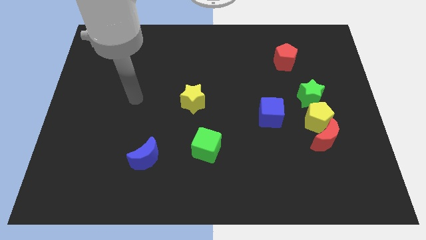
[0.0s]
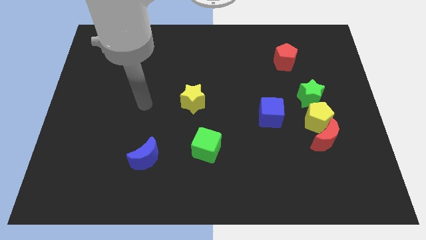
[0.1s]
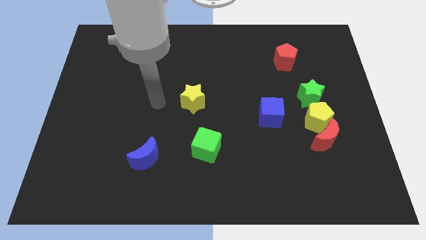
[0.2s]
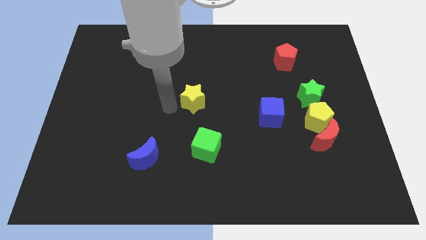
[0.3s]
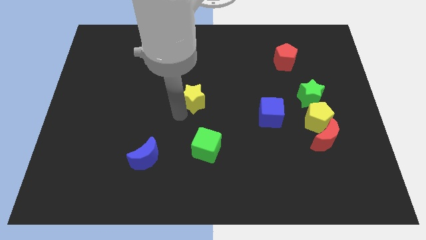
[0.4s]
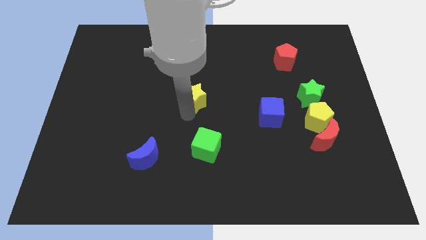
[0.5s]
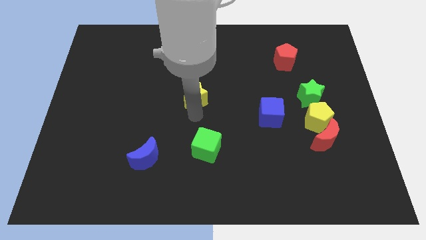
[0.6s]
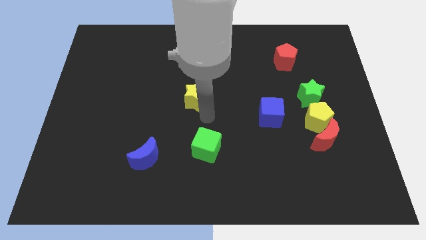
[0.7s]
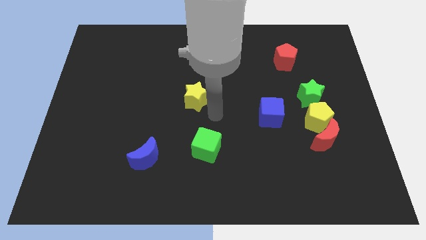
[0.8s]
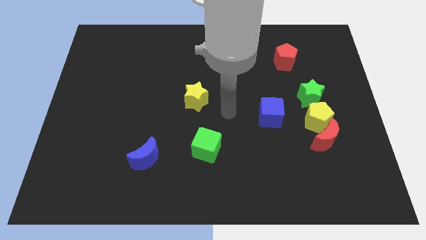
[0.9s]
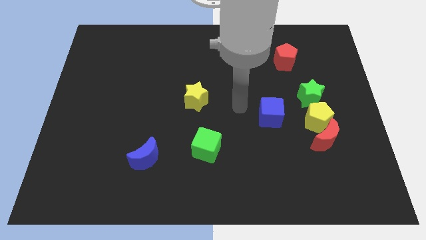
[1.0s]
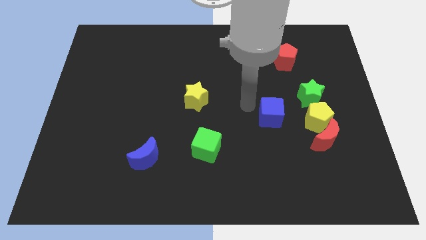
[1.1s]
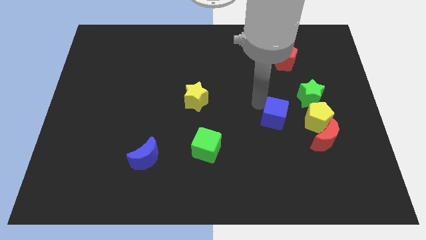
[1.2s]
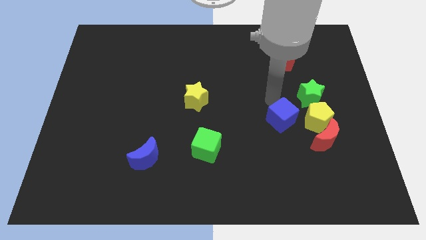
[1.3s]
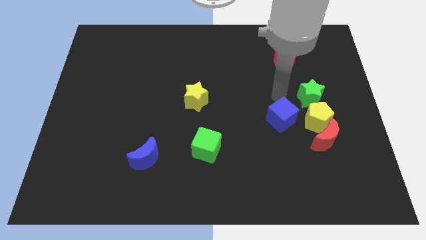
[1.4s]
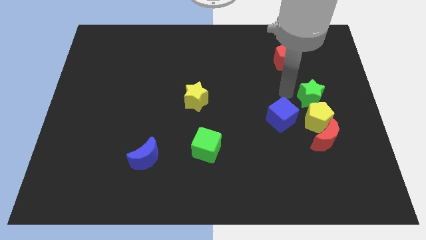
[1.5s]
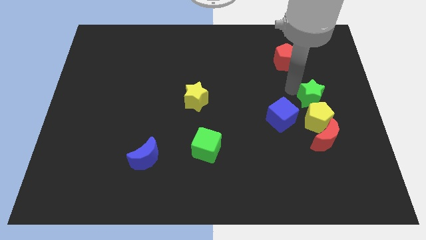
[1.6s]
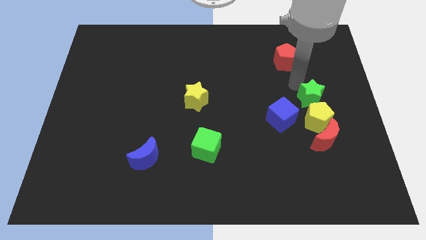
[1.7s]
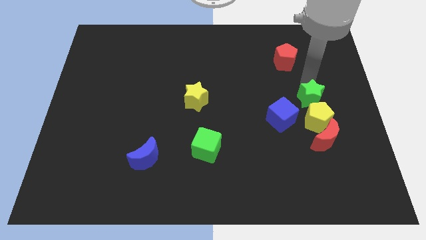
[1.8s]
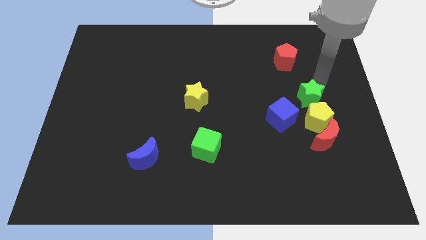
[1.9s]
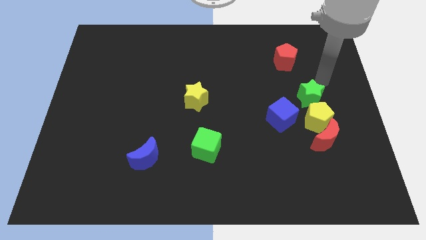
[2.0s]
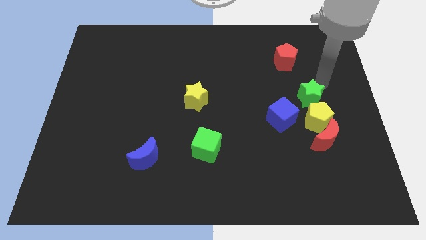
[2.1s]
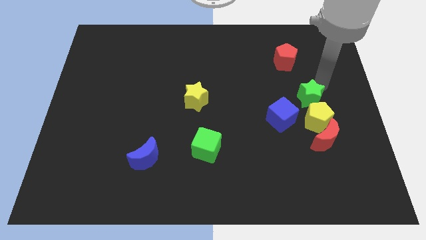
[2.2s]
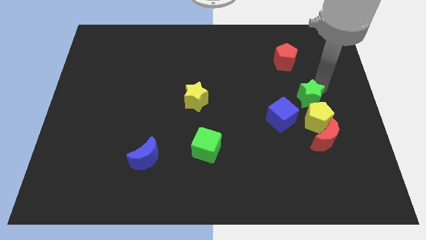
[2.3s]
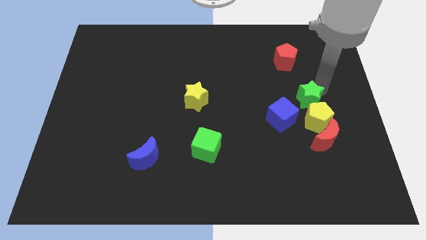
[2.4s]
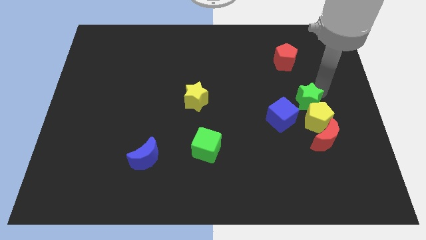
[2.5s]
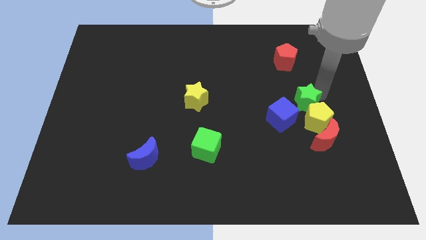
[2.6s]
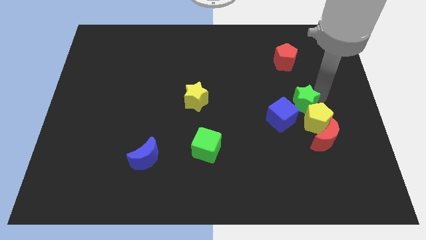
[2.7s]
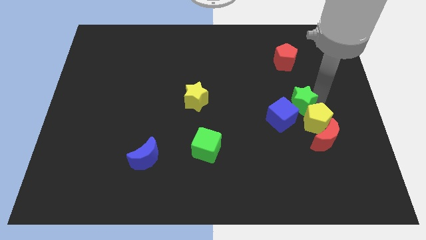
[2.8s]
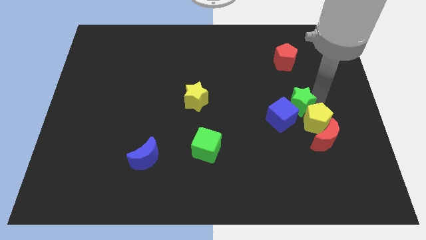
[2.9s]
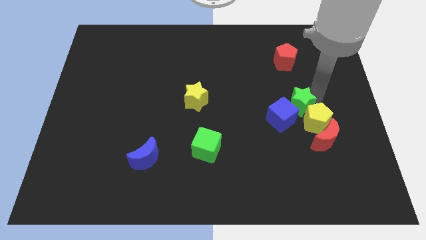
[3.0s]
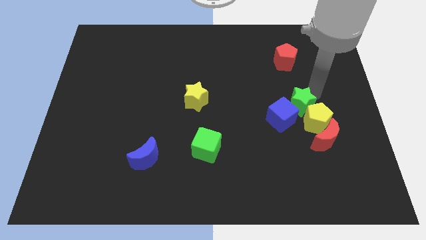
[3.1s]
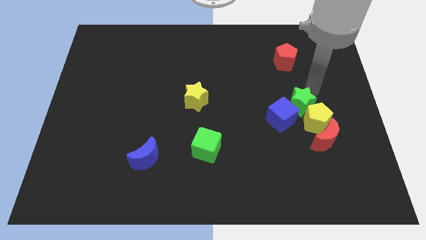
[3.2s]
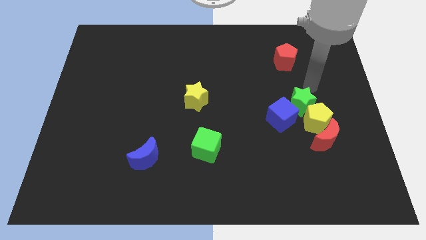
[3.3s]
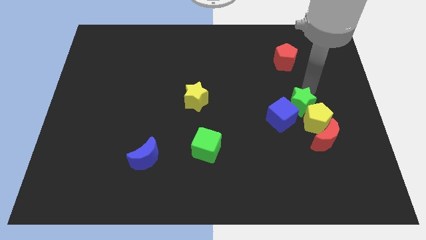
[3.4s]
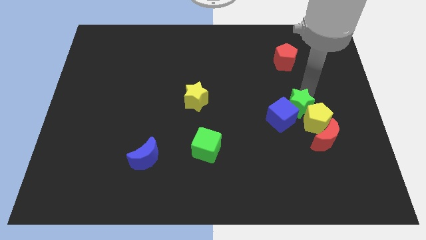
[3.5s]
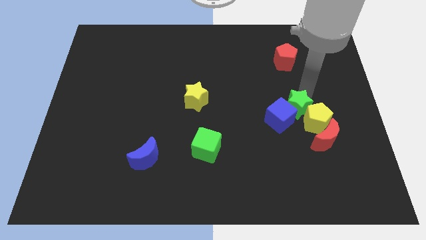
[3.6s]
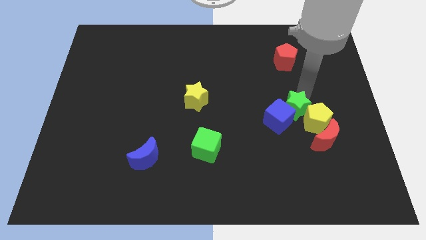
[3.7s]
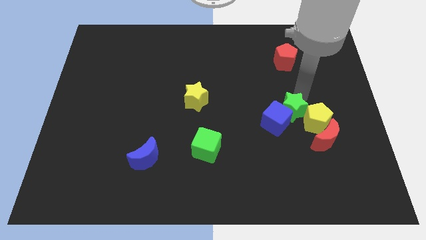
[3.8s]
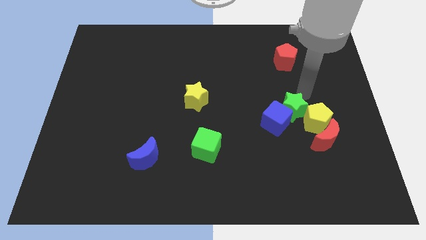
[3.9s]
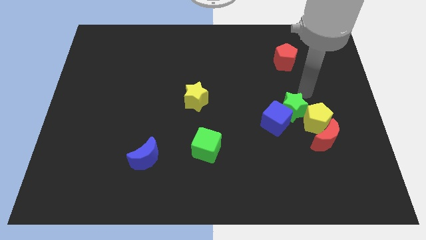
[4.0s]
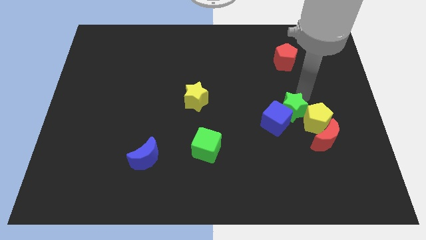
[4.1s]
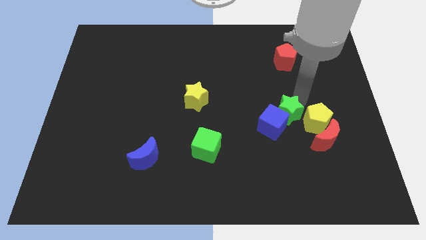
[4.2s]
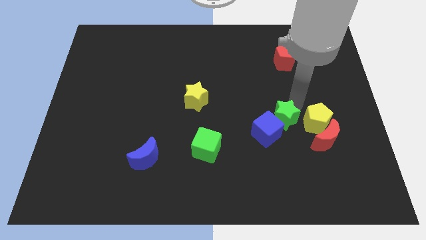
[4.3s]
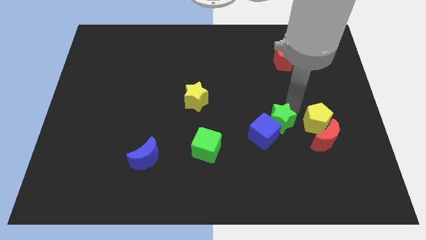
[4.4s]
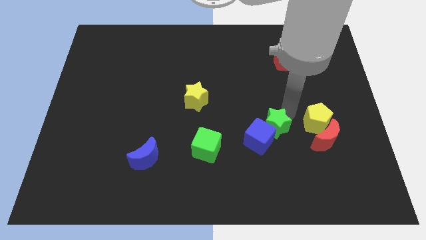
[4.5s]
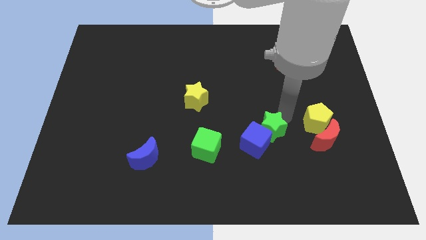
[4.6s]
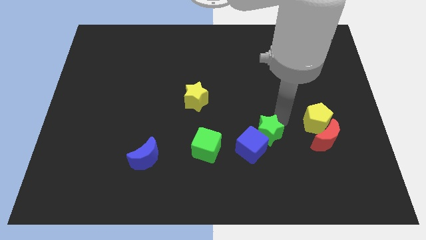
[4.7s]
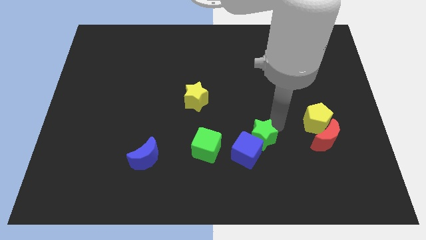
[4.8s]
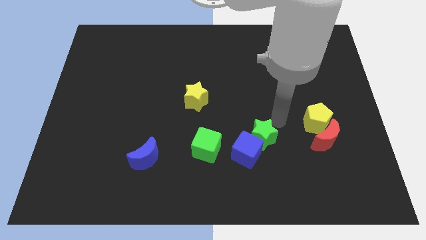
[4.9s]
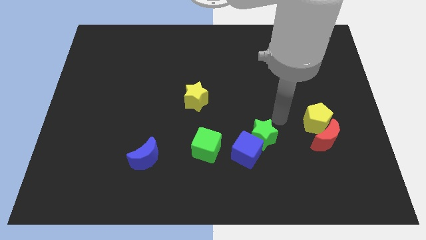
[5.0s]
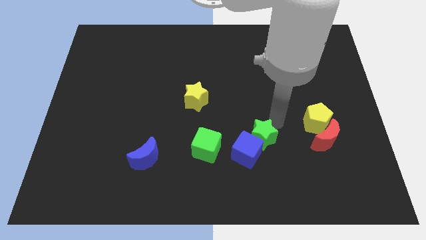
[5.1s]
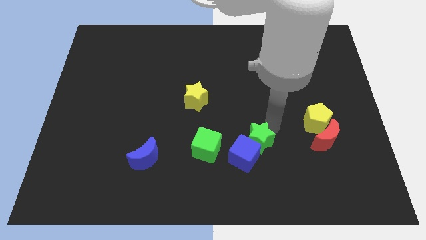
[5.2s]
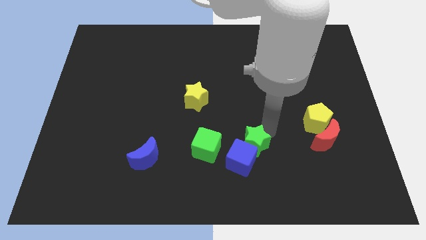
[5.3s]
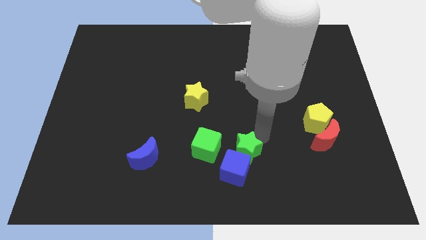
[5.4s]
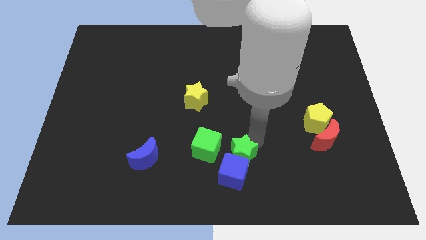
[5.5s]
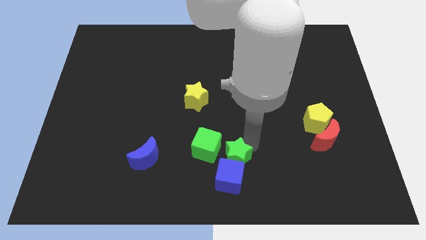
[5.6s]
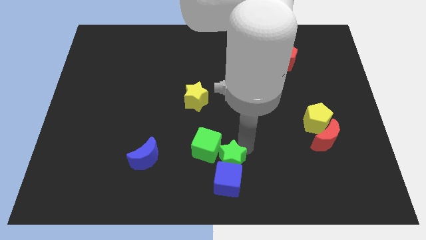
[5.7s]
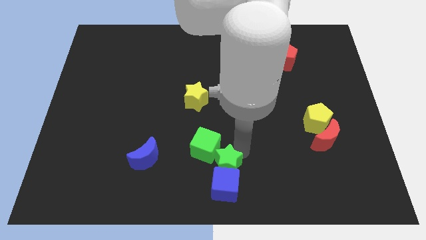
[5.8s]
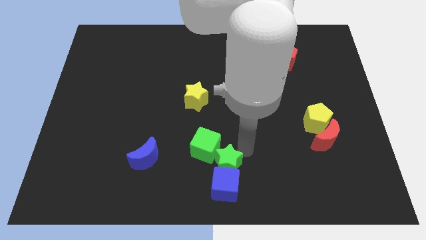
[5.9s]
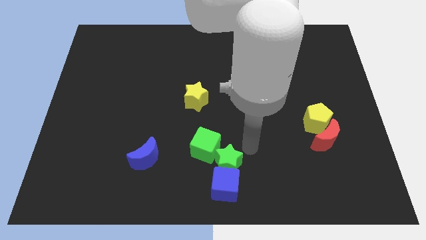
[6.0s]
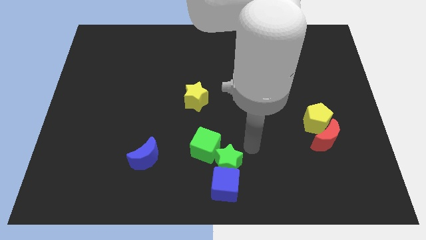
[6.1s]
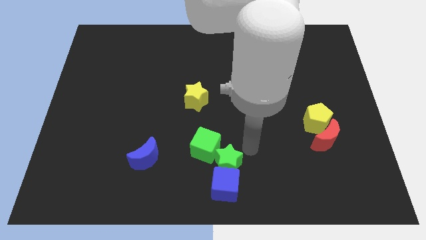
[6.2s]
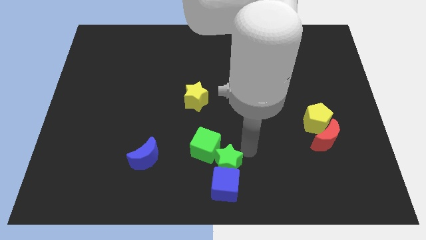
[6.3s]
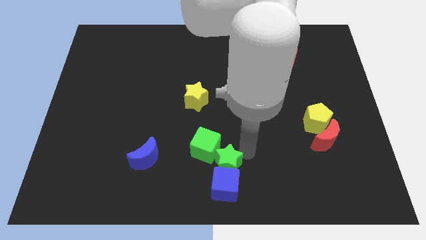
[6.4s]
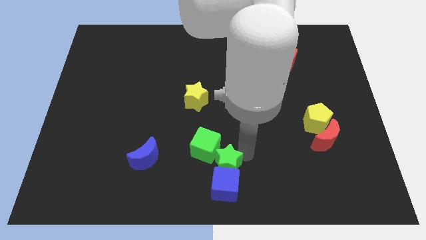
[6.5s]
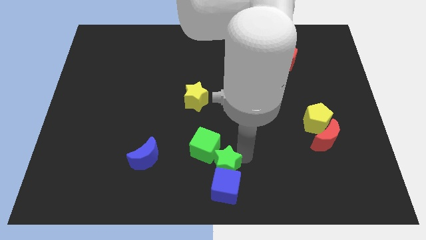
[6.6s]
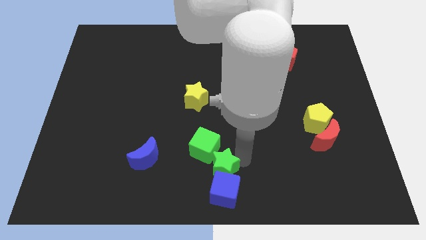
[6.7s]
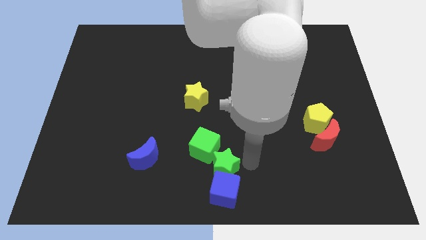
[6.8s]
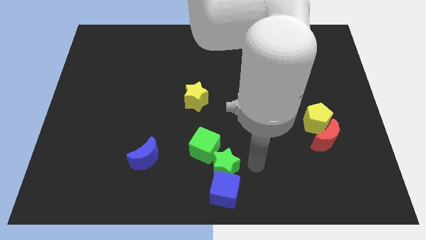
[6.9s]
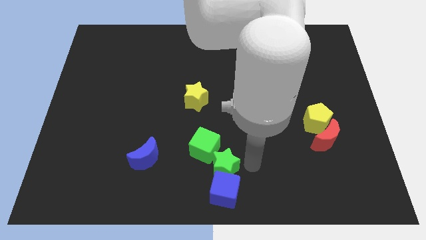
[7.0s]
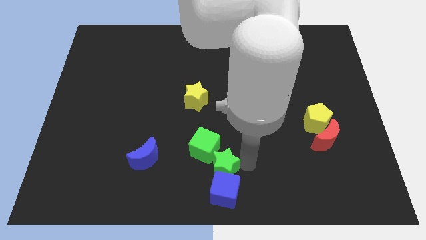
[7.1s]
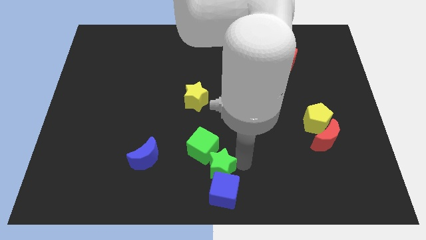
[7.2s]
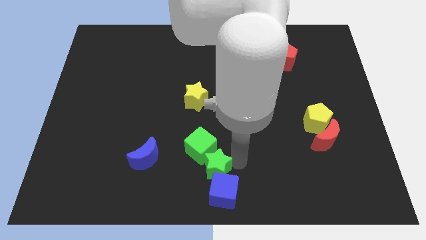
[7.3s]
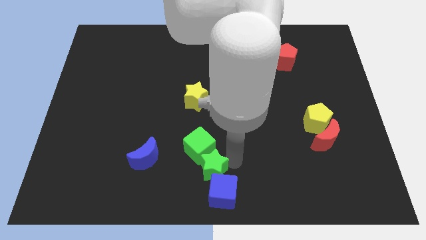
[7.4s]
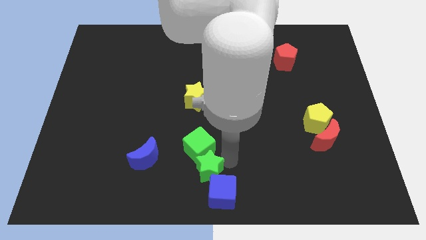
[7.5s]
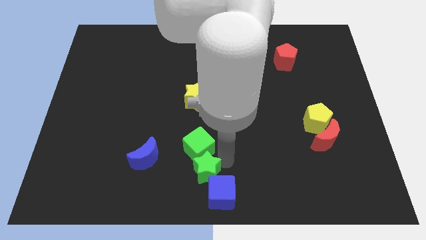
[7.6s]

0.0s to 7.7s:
move the green star to the bottom left of the green cube
